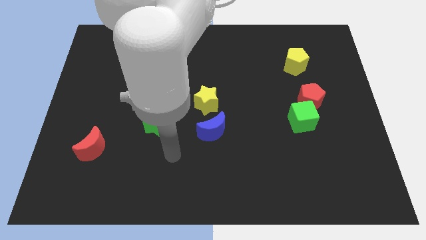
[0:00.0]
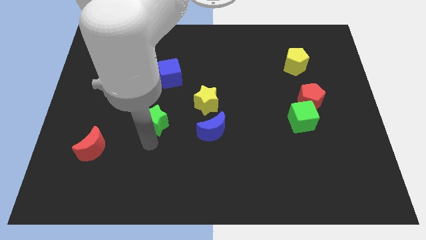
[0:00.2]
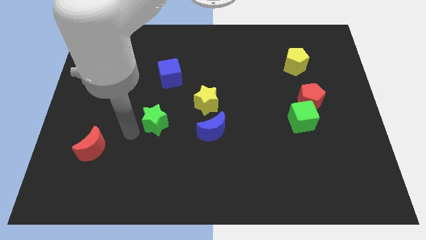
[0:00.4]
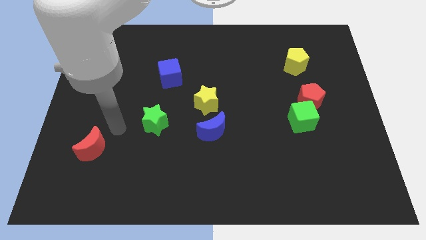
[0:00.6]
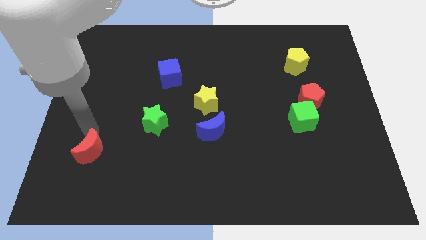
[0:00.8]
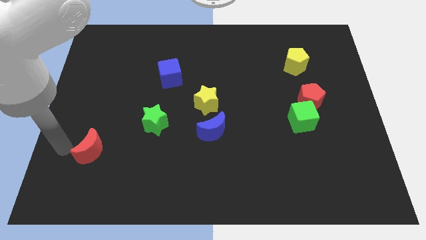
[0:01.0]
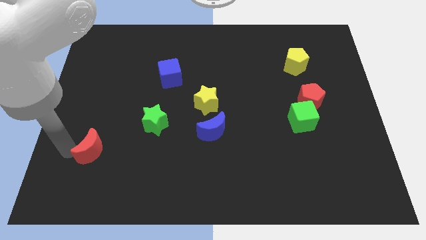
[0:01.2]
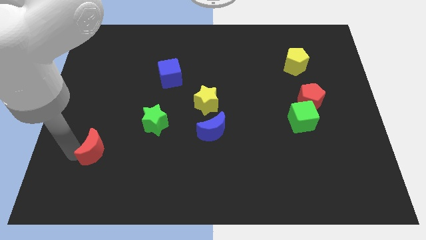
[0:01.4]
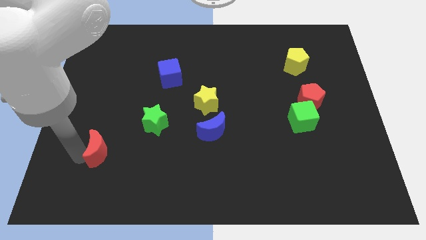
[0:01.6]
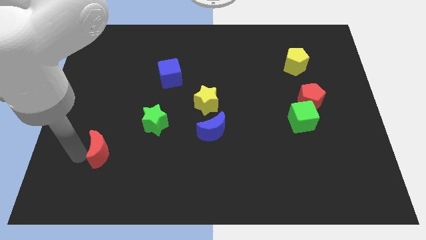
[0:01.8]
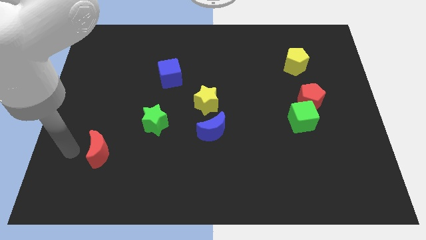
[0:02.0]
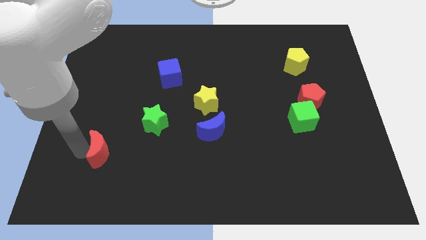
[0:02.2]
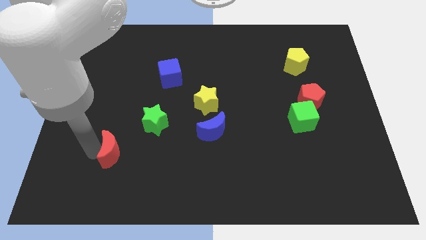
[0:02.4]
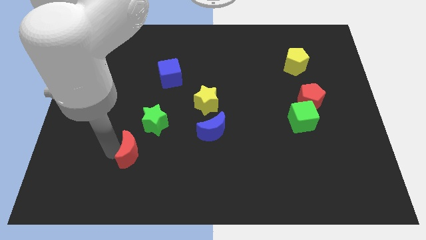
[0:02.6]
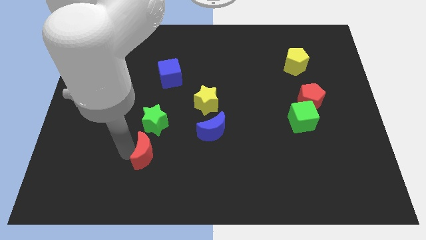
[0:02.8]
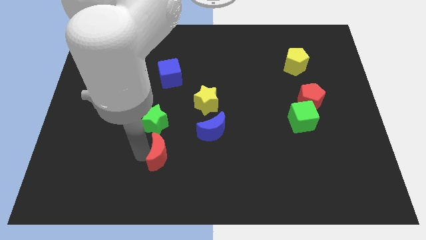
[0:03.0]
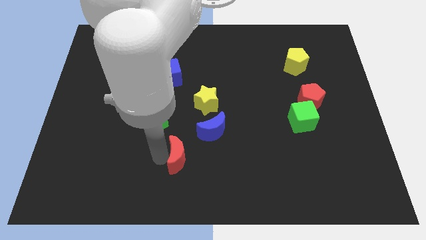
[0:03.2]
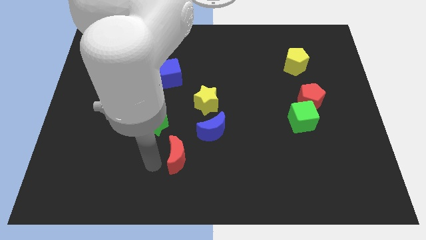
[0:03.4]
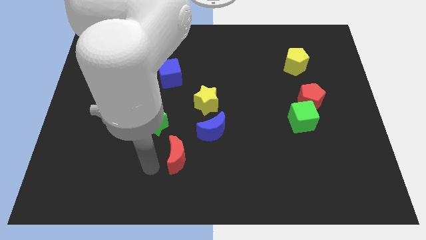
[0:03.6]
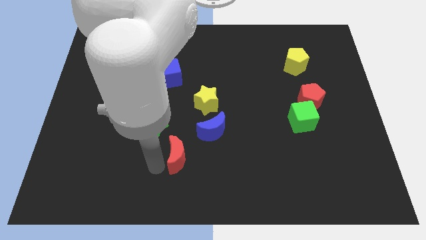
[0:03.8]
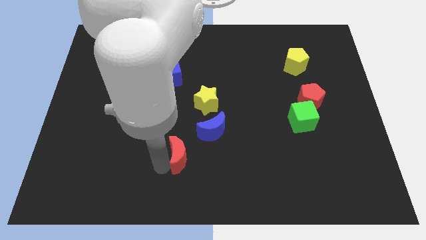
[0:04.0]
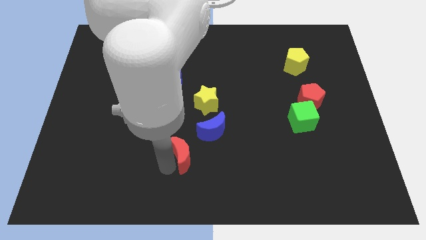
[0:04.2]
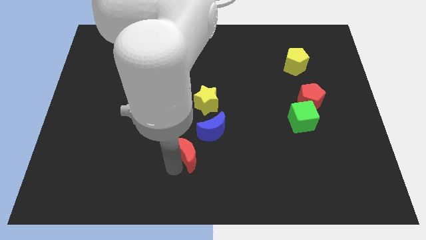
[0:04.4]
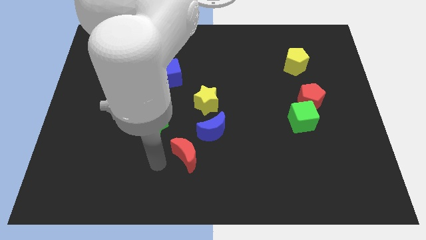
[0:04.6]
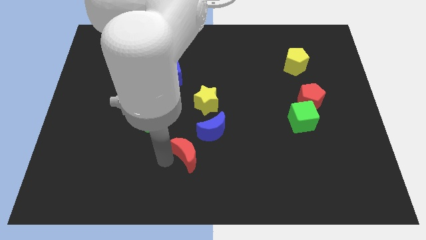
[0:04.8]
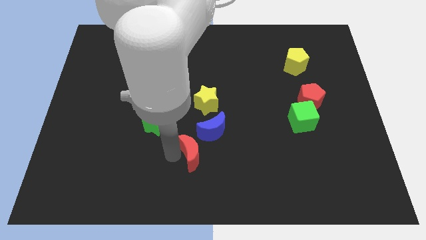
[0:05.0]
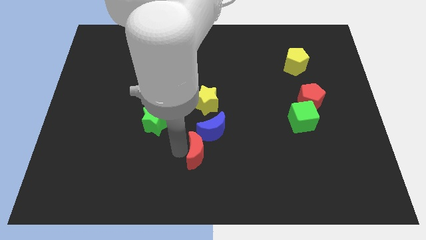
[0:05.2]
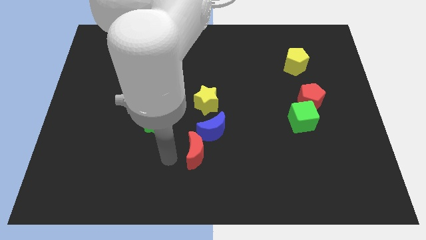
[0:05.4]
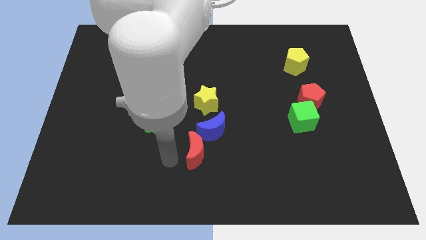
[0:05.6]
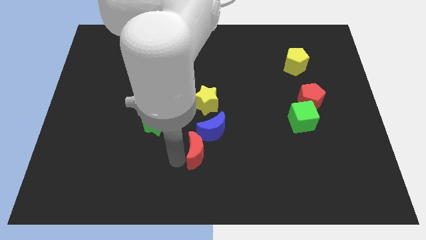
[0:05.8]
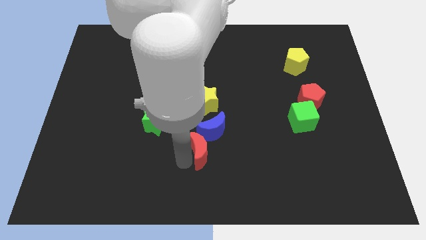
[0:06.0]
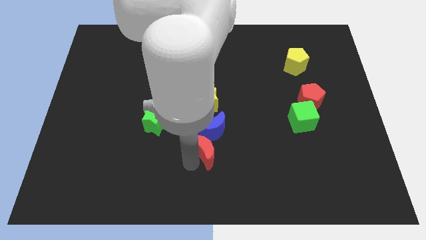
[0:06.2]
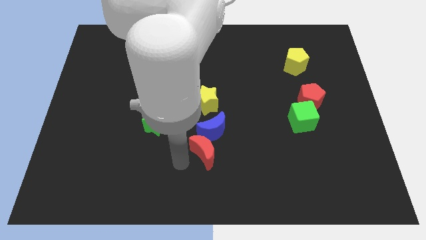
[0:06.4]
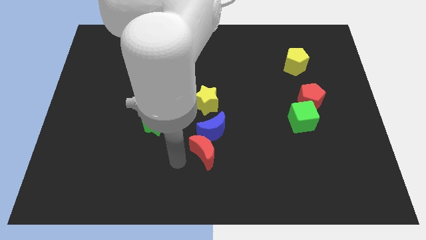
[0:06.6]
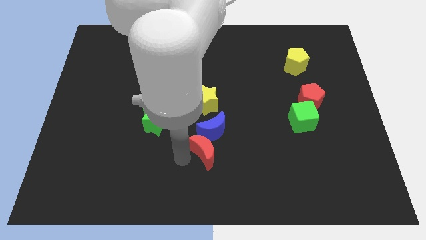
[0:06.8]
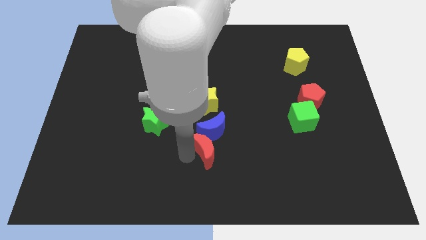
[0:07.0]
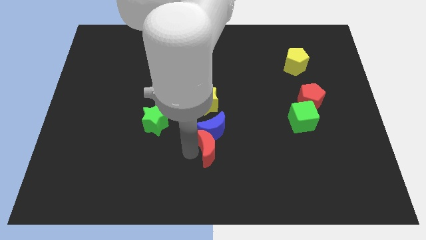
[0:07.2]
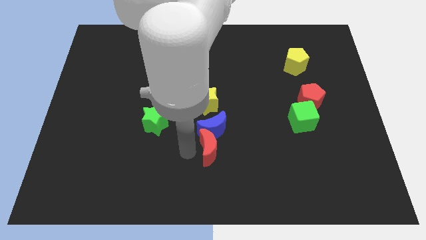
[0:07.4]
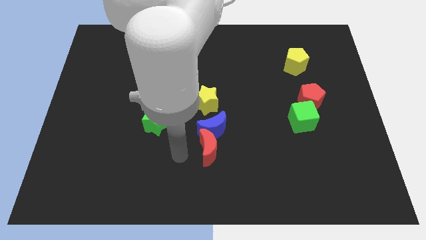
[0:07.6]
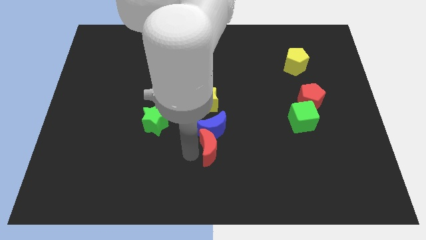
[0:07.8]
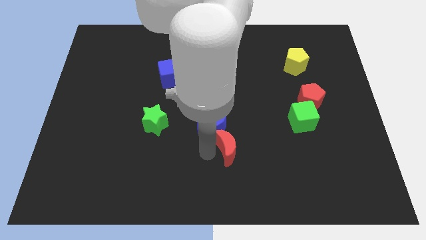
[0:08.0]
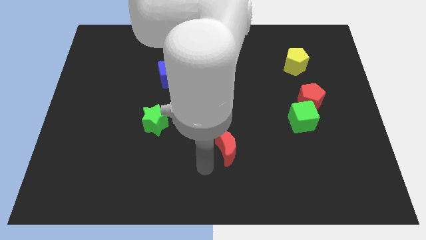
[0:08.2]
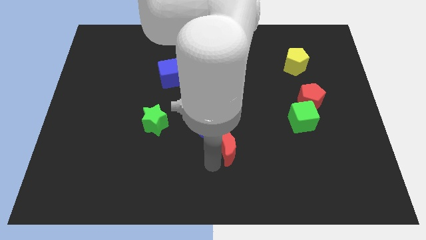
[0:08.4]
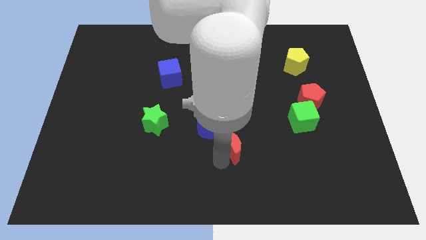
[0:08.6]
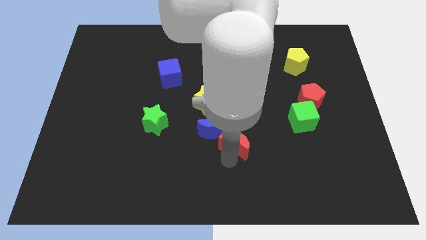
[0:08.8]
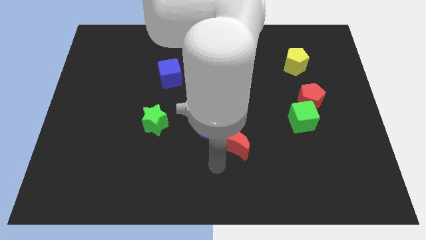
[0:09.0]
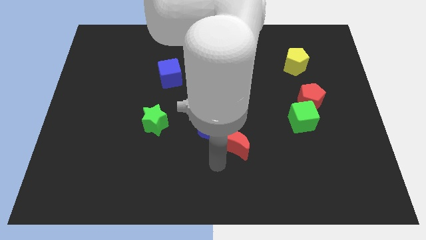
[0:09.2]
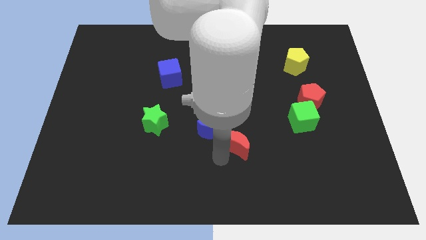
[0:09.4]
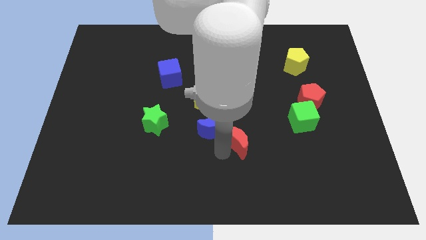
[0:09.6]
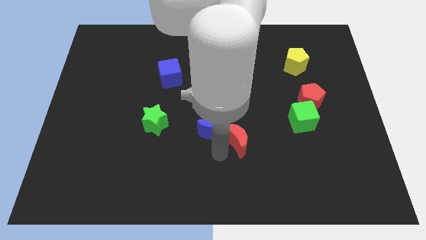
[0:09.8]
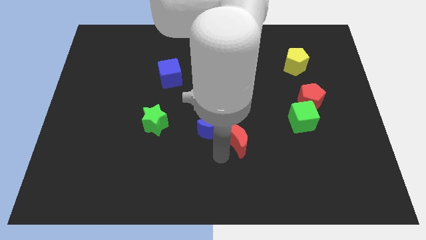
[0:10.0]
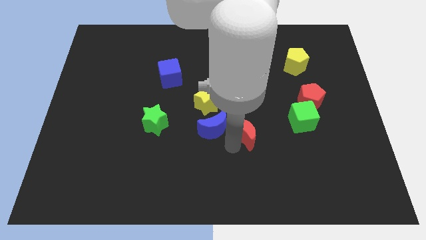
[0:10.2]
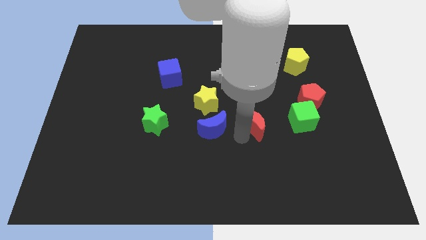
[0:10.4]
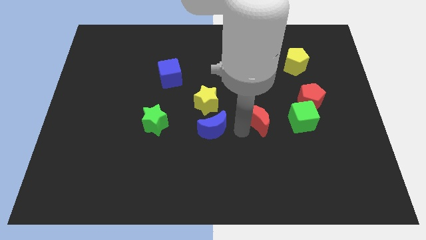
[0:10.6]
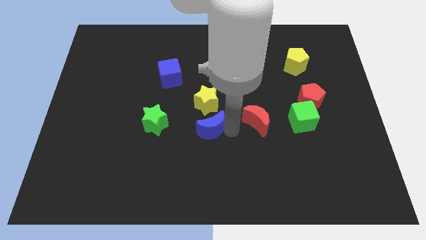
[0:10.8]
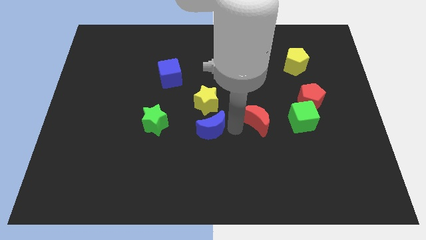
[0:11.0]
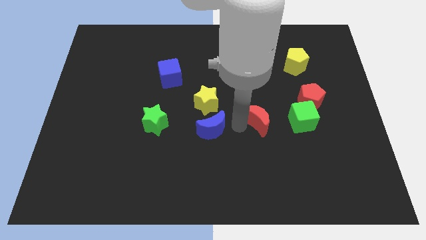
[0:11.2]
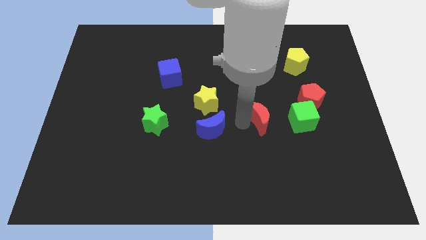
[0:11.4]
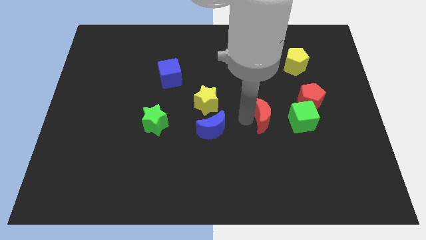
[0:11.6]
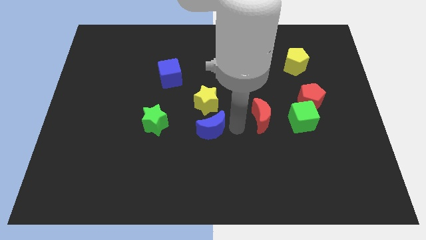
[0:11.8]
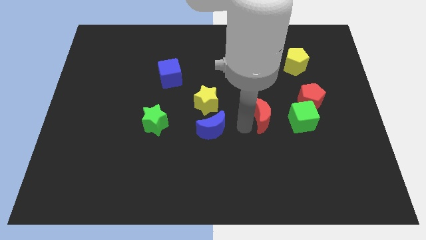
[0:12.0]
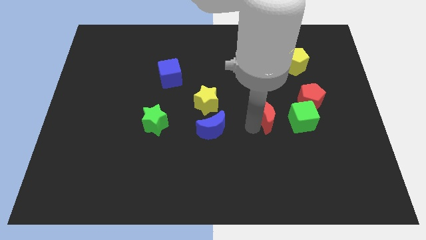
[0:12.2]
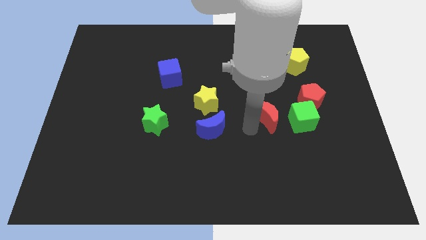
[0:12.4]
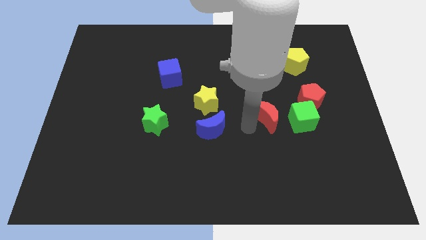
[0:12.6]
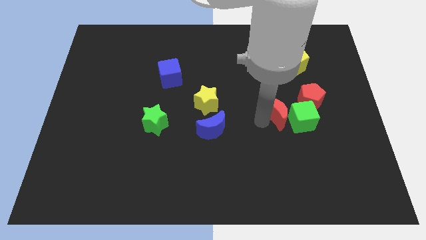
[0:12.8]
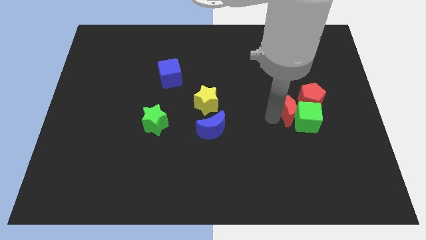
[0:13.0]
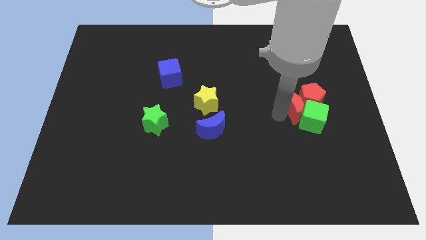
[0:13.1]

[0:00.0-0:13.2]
slide the red moon towards the red pentagon

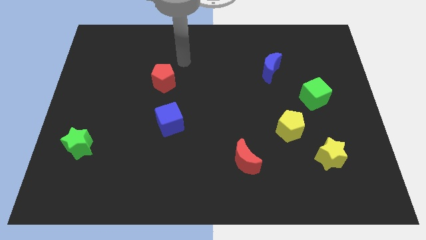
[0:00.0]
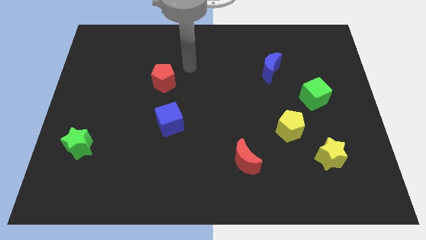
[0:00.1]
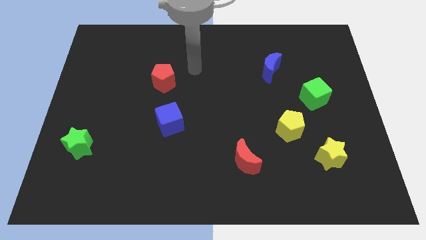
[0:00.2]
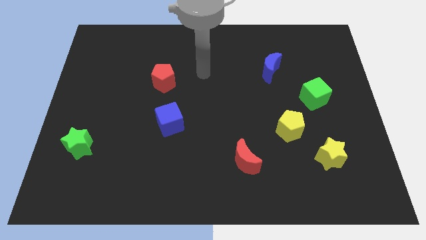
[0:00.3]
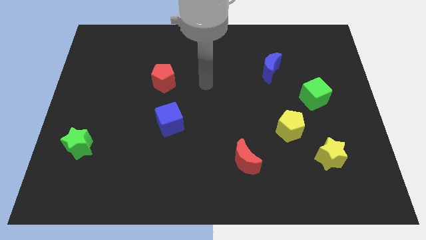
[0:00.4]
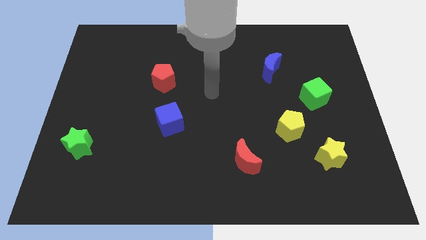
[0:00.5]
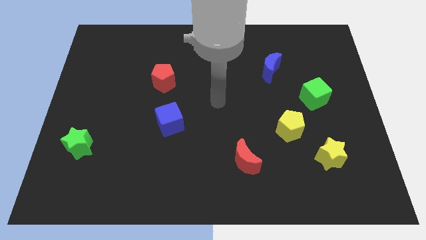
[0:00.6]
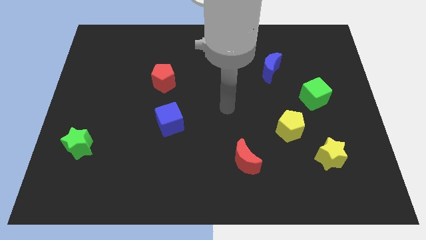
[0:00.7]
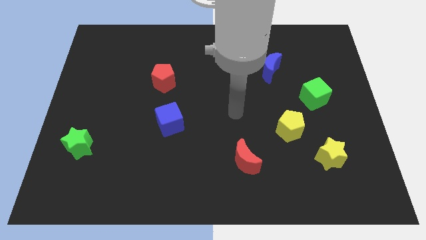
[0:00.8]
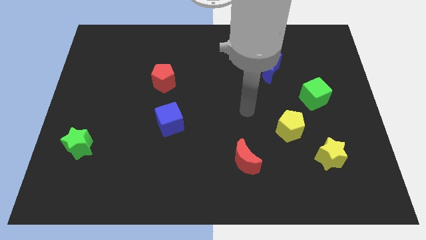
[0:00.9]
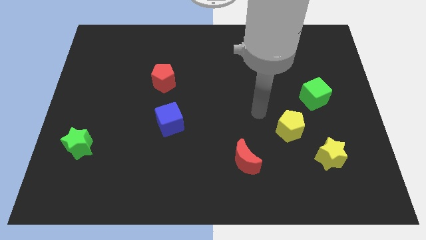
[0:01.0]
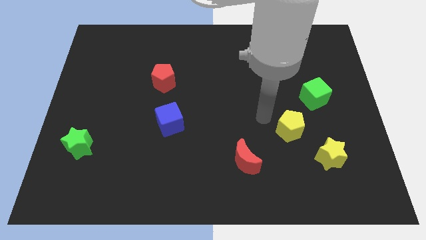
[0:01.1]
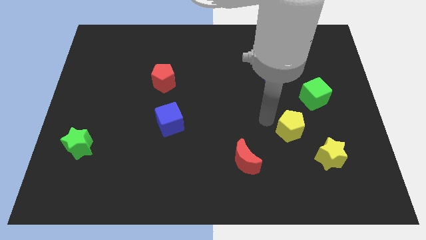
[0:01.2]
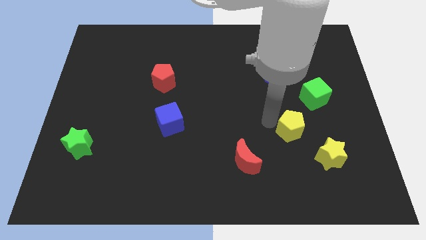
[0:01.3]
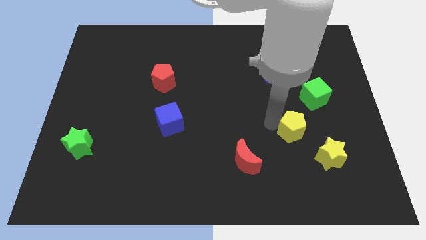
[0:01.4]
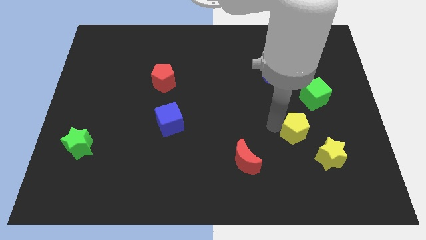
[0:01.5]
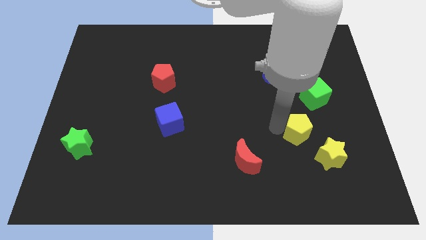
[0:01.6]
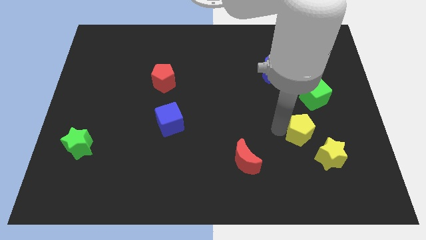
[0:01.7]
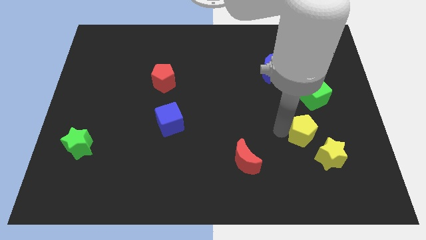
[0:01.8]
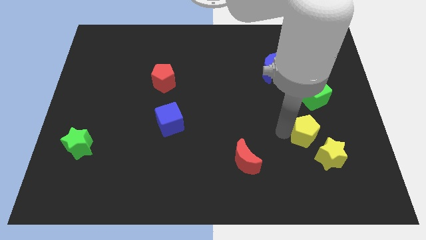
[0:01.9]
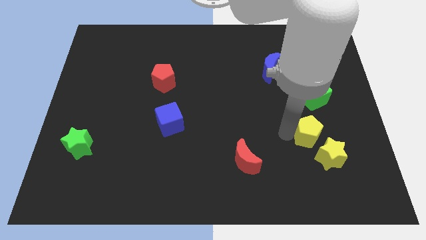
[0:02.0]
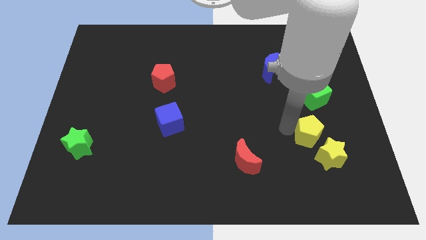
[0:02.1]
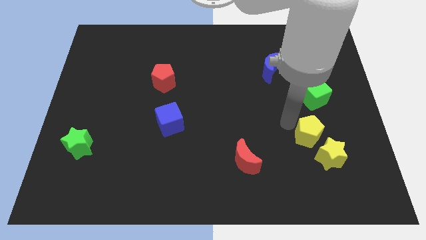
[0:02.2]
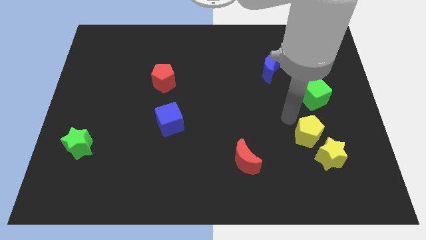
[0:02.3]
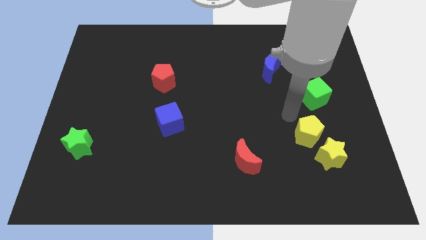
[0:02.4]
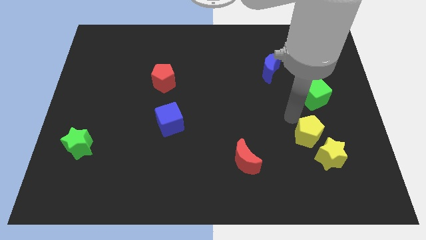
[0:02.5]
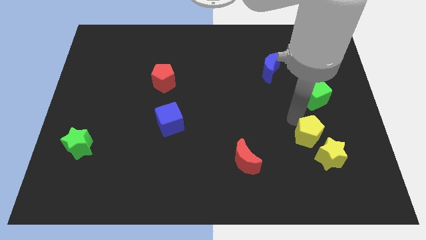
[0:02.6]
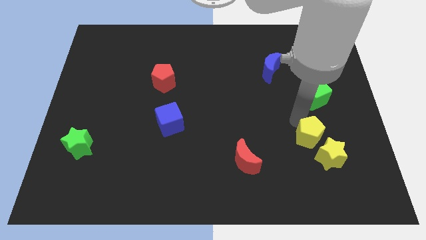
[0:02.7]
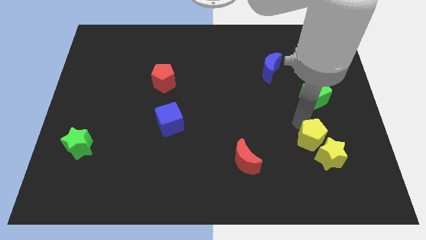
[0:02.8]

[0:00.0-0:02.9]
move the yellow pentagon close to the yellow star
